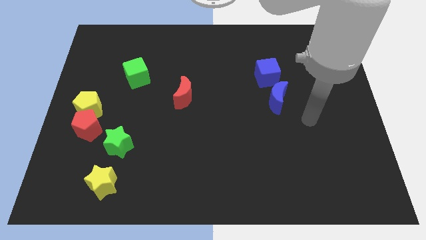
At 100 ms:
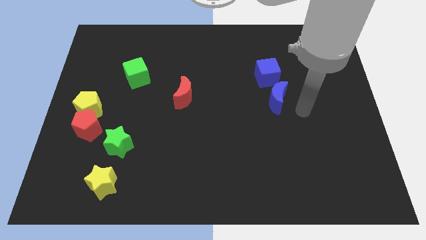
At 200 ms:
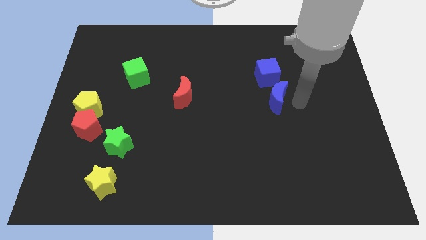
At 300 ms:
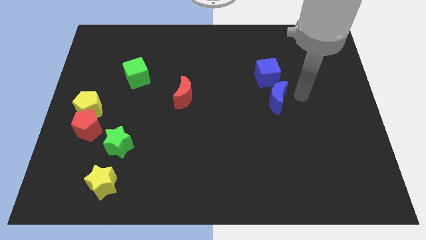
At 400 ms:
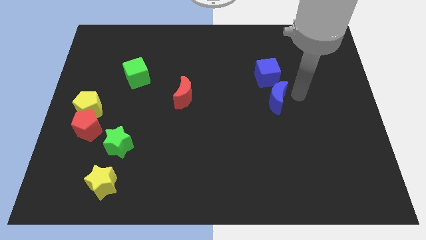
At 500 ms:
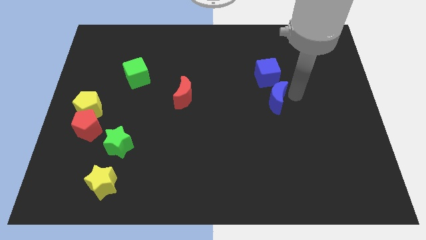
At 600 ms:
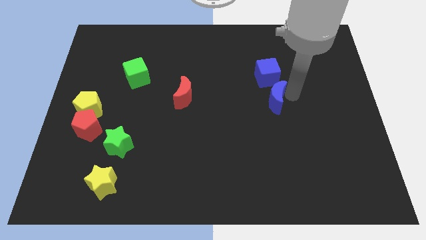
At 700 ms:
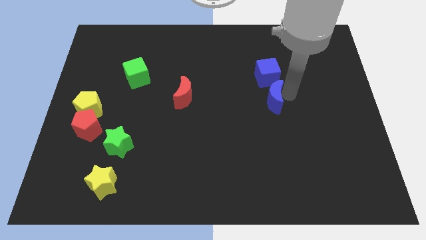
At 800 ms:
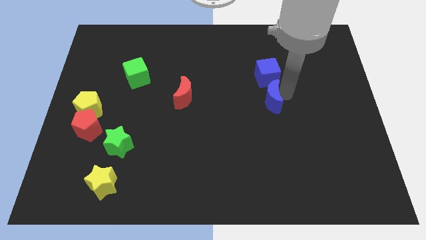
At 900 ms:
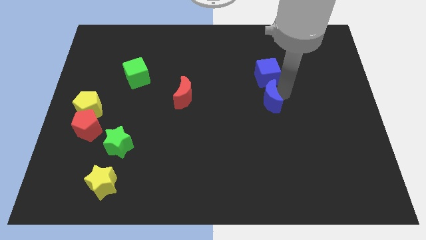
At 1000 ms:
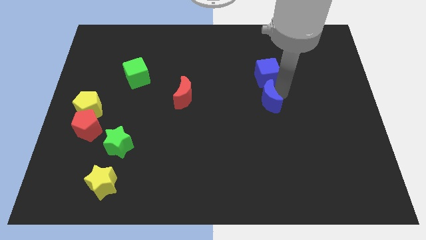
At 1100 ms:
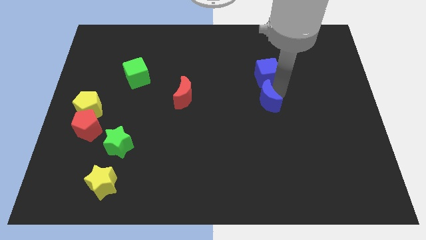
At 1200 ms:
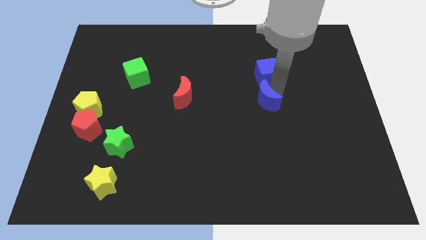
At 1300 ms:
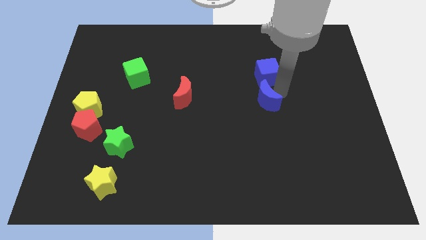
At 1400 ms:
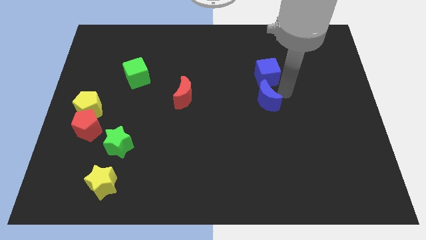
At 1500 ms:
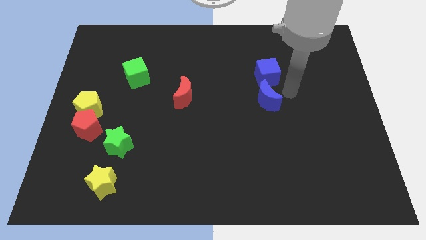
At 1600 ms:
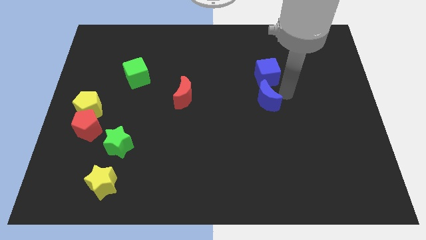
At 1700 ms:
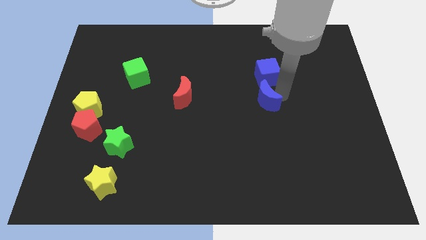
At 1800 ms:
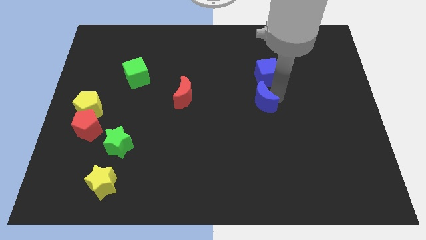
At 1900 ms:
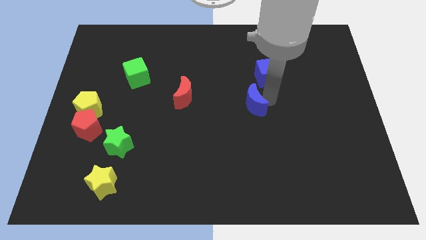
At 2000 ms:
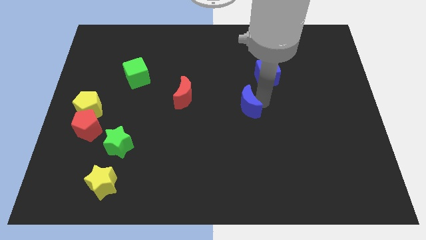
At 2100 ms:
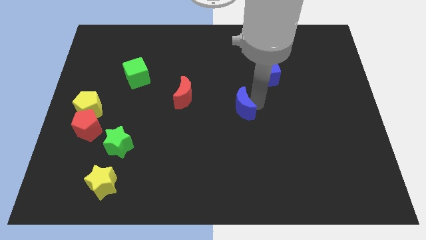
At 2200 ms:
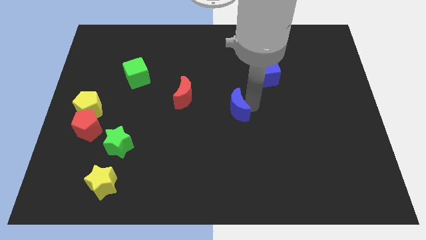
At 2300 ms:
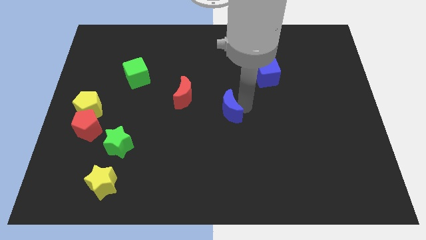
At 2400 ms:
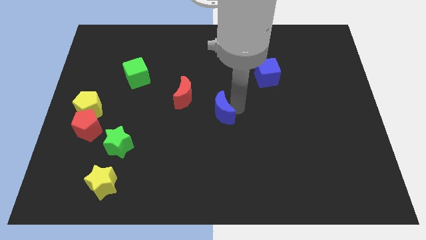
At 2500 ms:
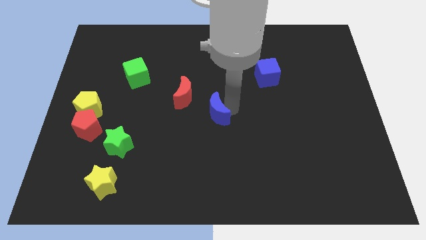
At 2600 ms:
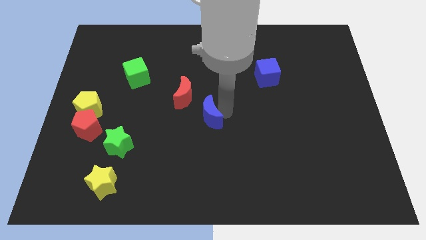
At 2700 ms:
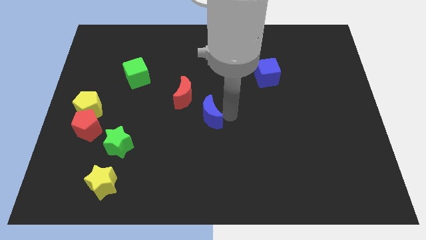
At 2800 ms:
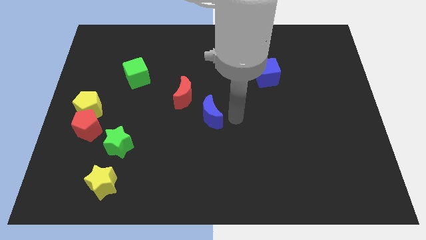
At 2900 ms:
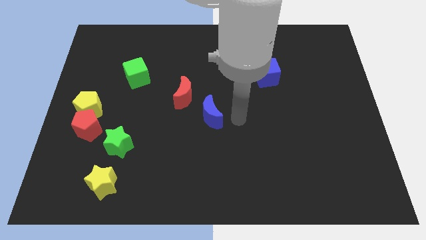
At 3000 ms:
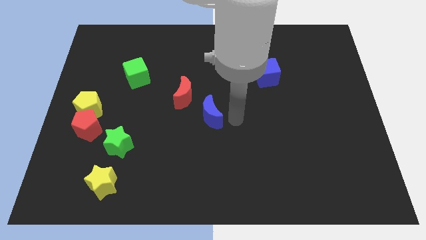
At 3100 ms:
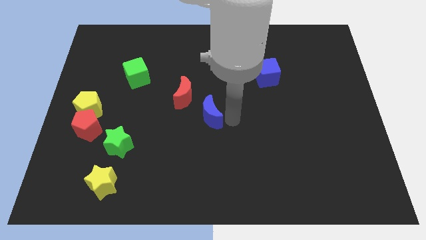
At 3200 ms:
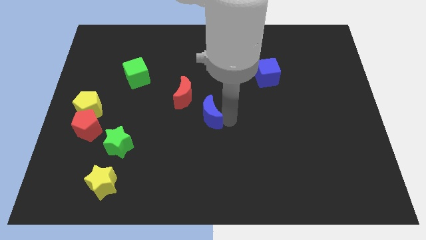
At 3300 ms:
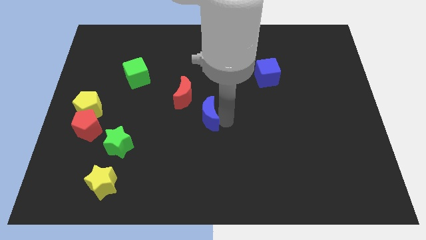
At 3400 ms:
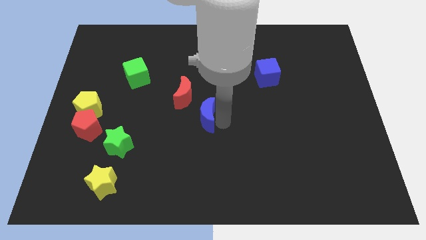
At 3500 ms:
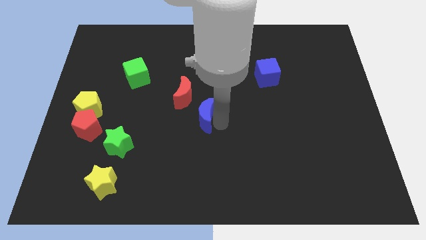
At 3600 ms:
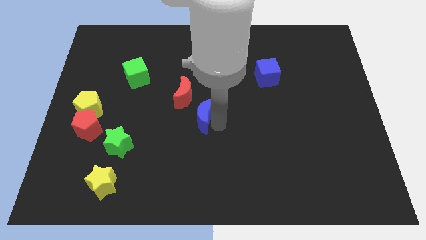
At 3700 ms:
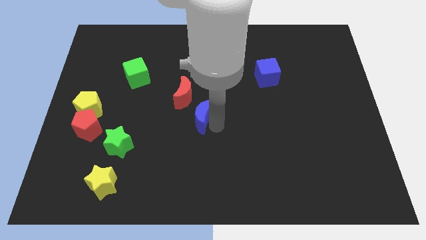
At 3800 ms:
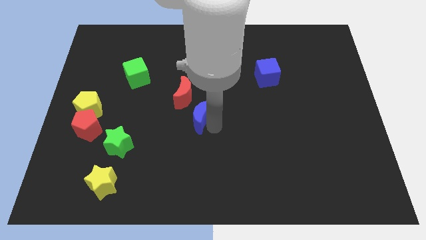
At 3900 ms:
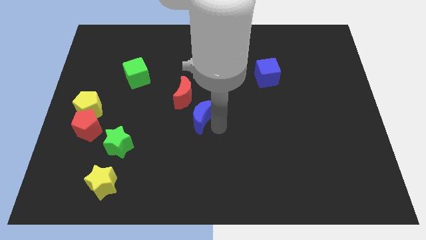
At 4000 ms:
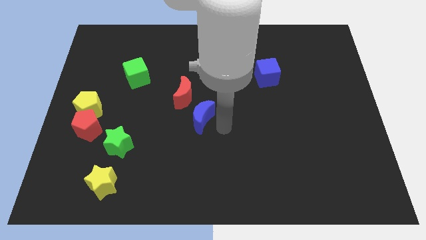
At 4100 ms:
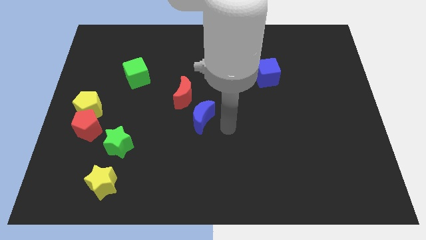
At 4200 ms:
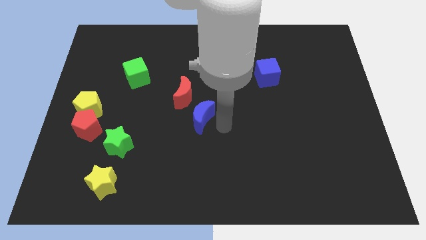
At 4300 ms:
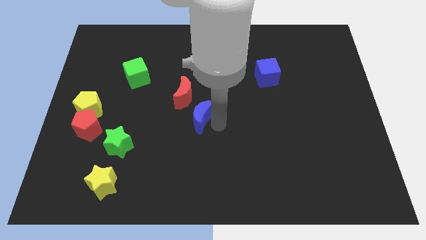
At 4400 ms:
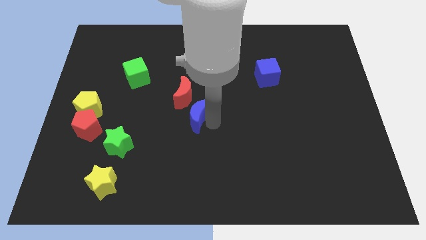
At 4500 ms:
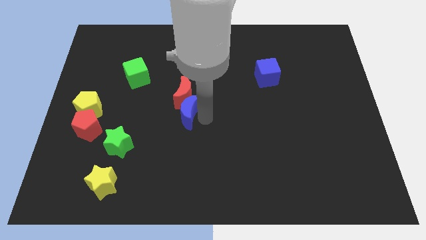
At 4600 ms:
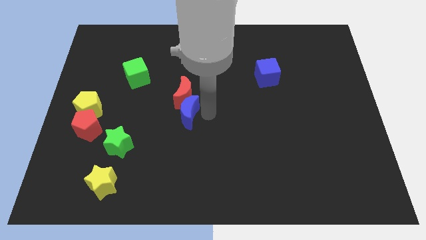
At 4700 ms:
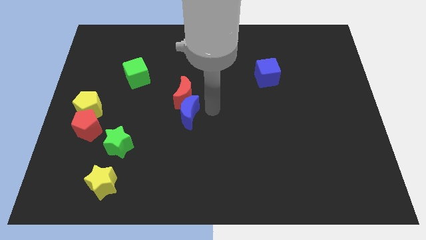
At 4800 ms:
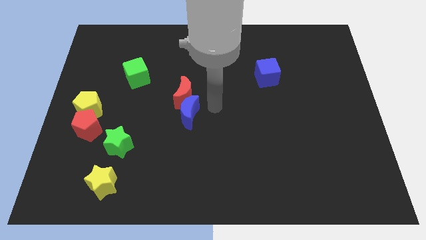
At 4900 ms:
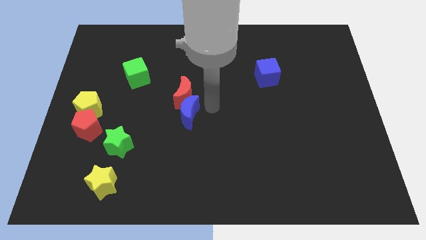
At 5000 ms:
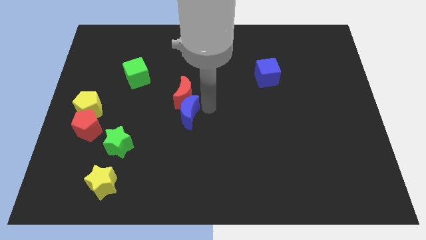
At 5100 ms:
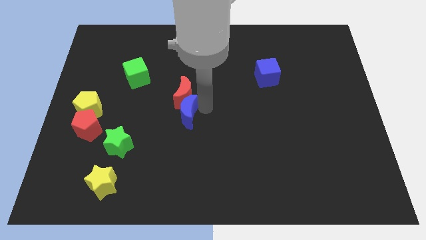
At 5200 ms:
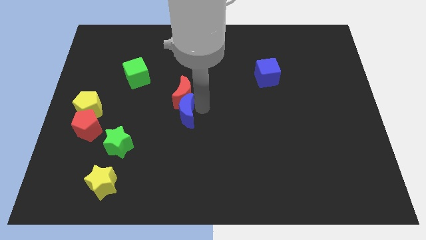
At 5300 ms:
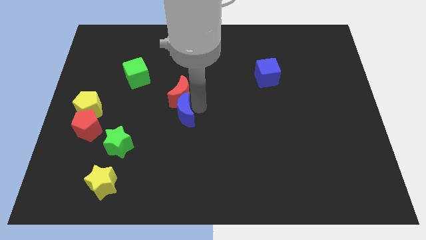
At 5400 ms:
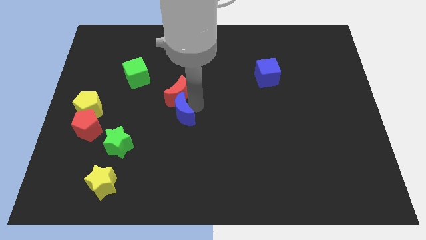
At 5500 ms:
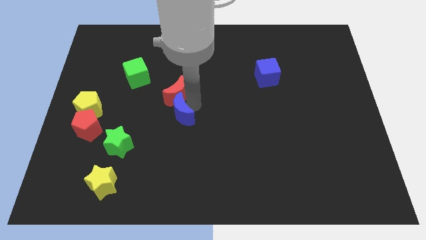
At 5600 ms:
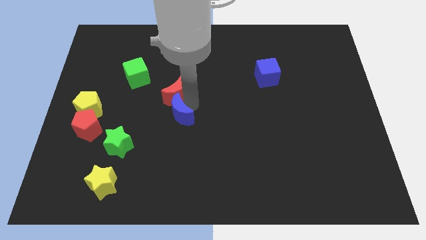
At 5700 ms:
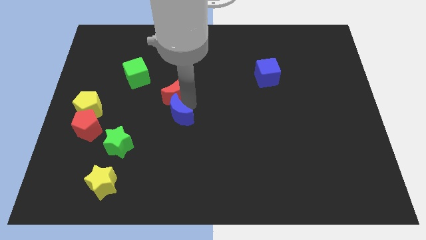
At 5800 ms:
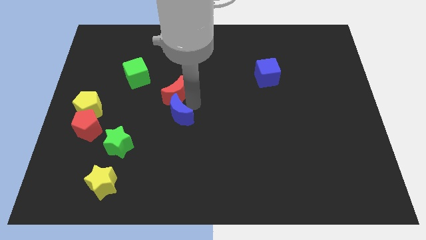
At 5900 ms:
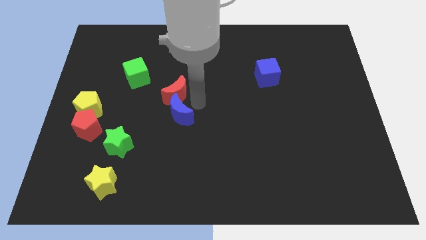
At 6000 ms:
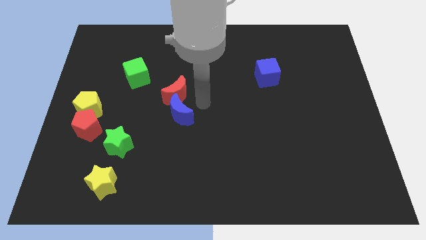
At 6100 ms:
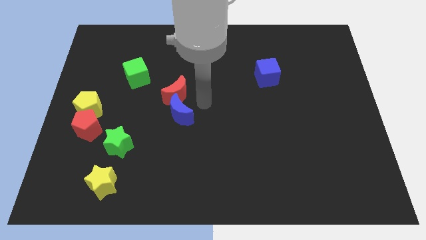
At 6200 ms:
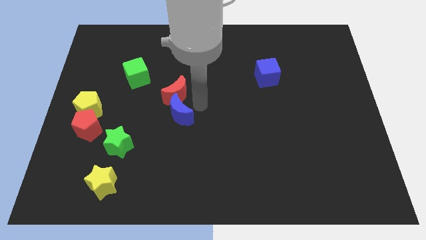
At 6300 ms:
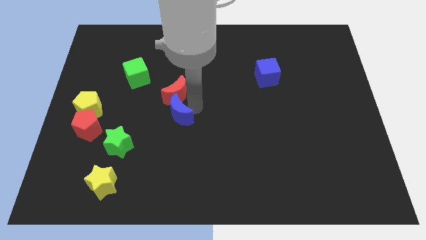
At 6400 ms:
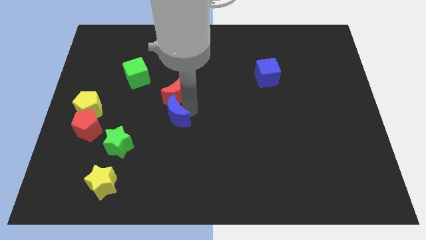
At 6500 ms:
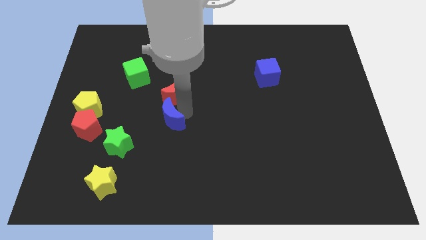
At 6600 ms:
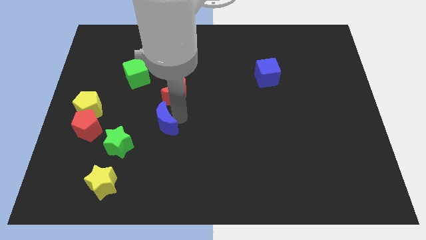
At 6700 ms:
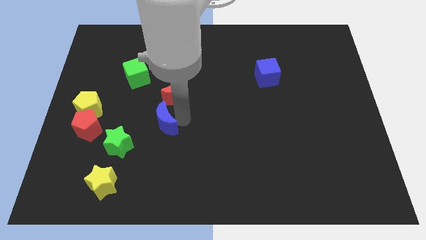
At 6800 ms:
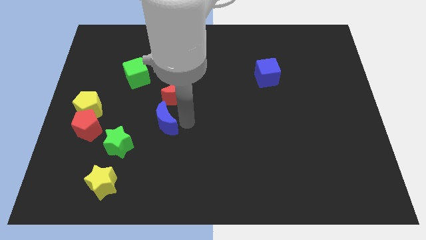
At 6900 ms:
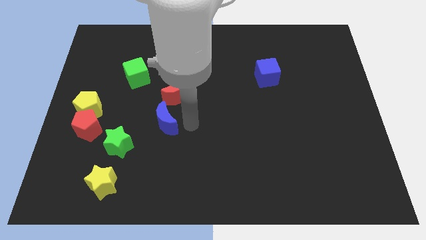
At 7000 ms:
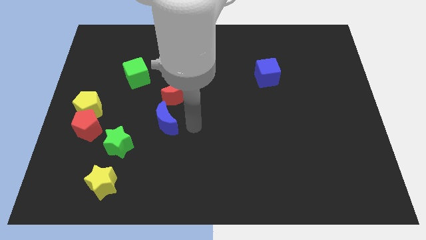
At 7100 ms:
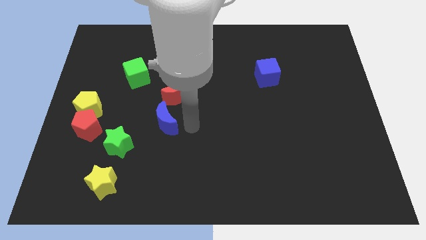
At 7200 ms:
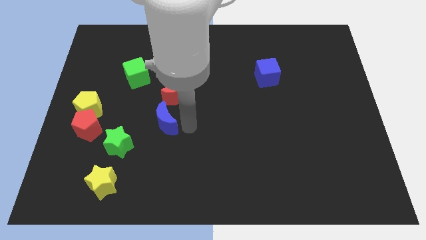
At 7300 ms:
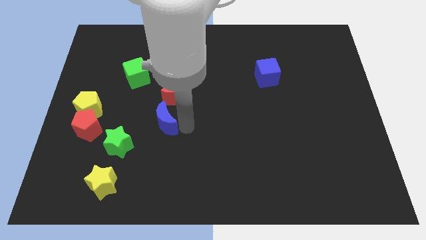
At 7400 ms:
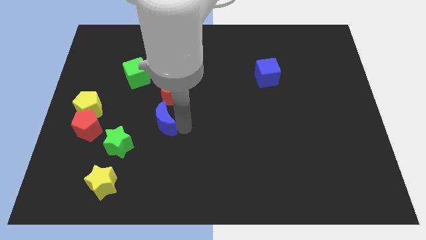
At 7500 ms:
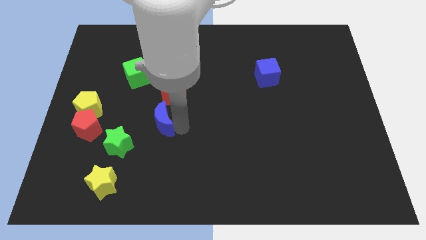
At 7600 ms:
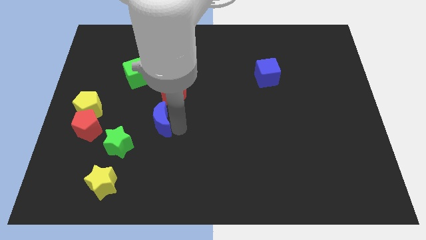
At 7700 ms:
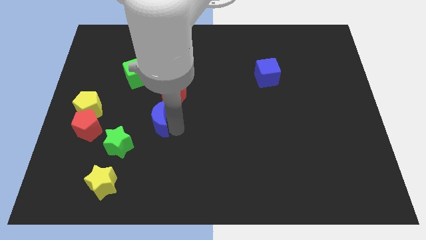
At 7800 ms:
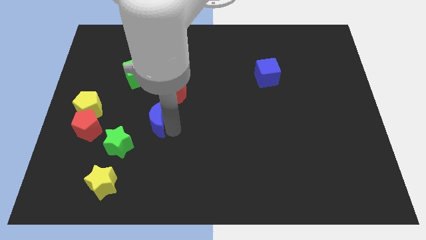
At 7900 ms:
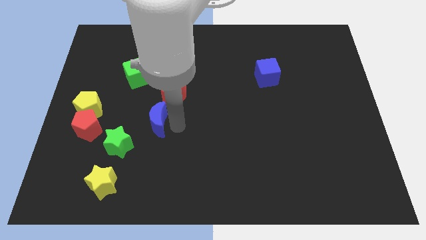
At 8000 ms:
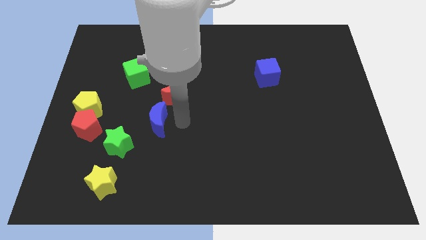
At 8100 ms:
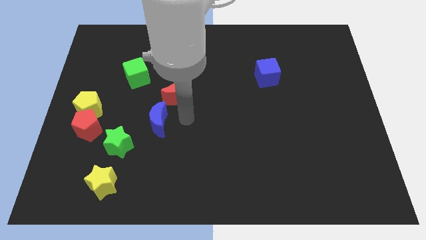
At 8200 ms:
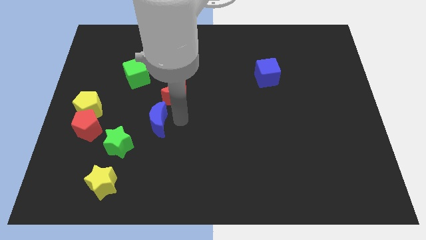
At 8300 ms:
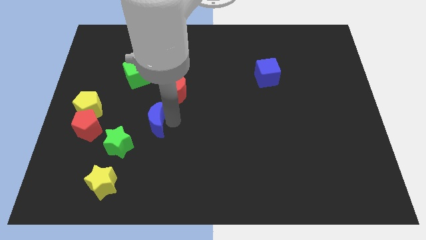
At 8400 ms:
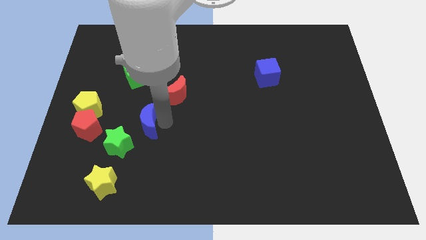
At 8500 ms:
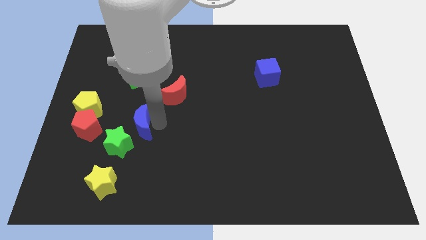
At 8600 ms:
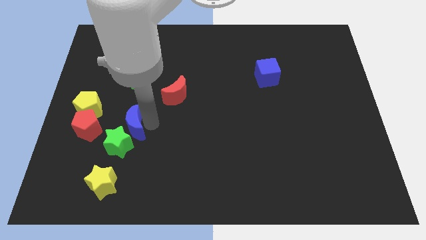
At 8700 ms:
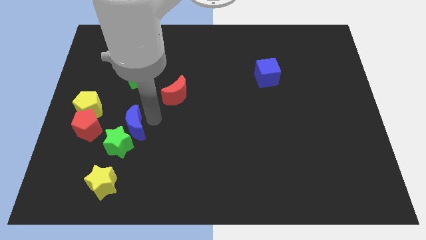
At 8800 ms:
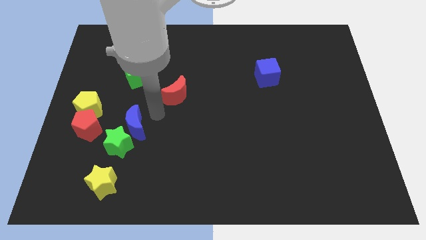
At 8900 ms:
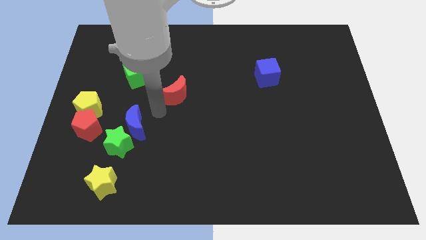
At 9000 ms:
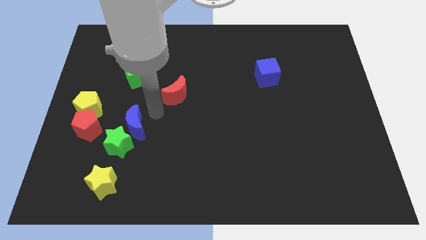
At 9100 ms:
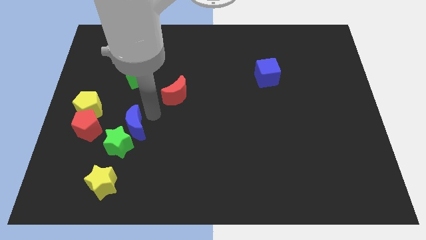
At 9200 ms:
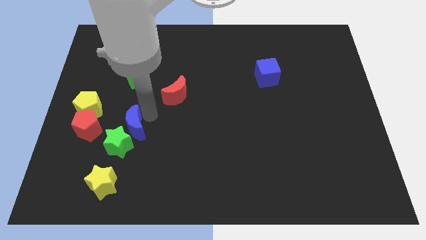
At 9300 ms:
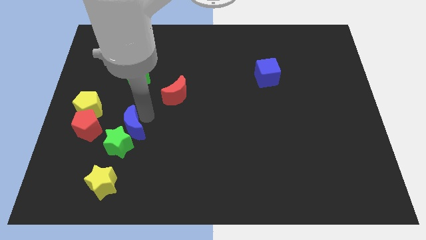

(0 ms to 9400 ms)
put the blue moon to the top side of the yellow star
